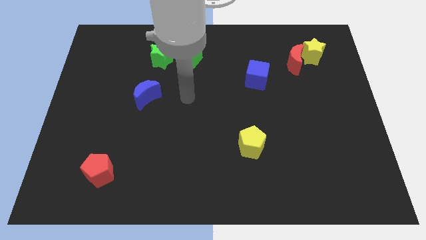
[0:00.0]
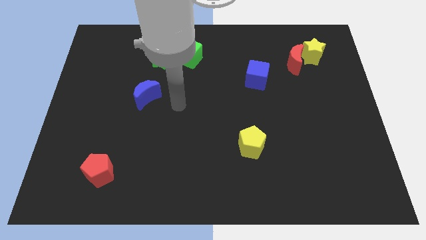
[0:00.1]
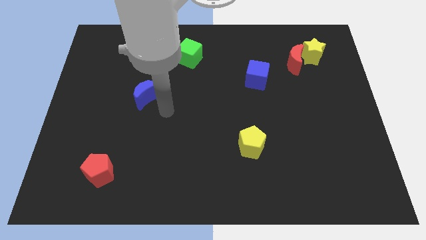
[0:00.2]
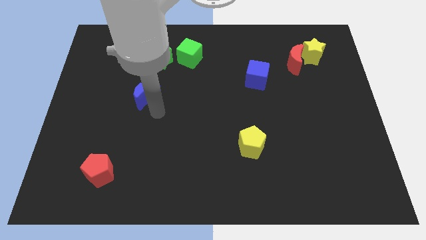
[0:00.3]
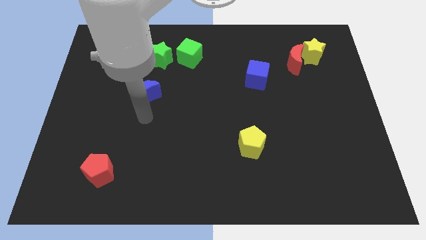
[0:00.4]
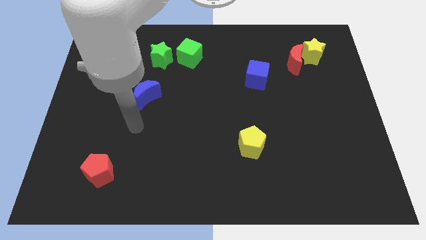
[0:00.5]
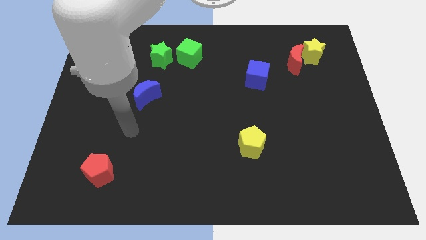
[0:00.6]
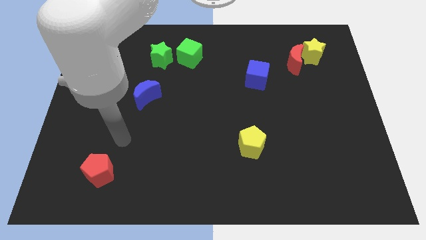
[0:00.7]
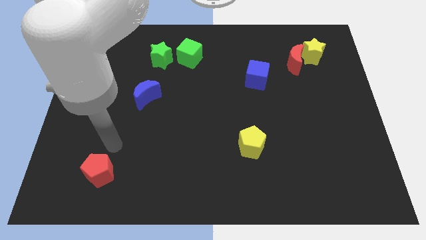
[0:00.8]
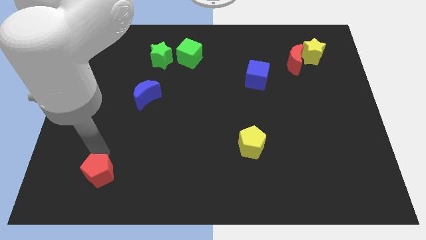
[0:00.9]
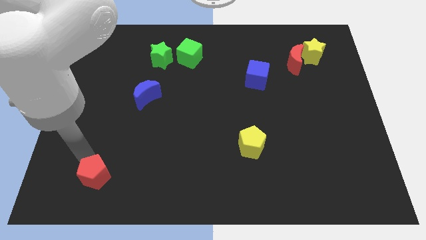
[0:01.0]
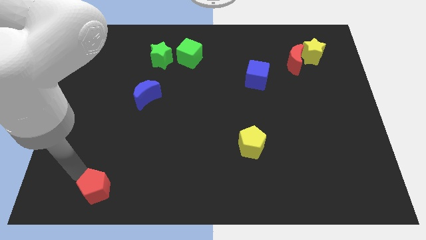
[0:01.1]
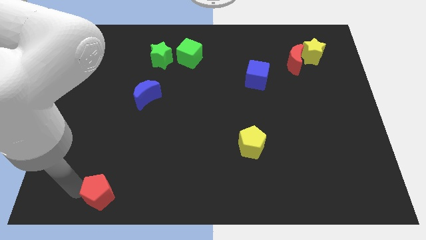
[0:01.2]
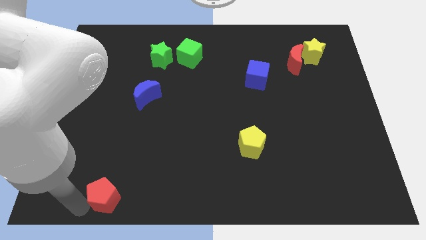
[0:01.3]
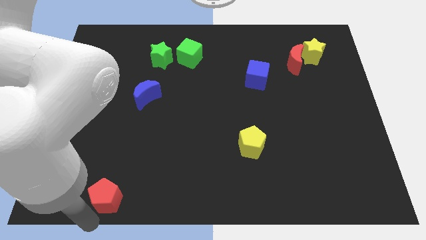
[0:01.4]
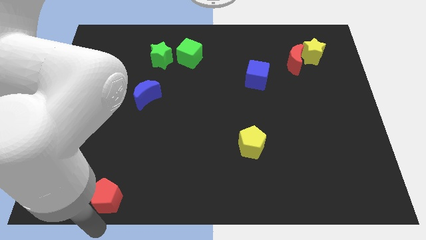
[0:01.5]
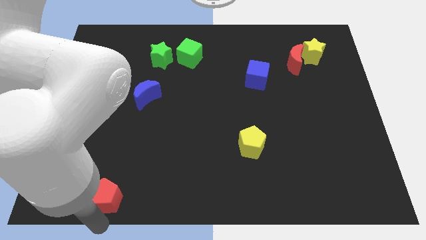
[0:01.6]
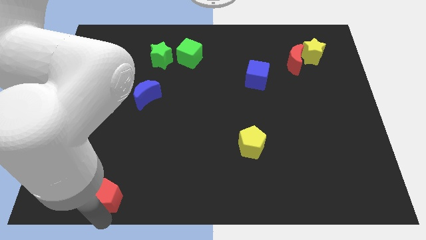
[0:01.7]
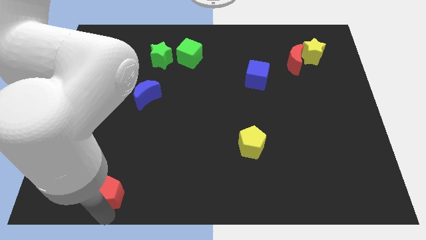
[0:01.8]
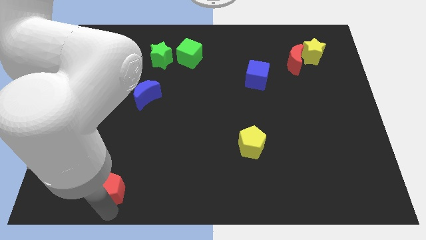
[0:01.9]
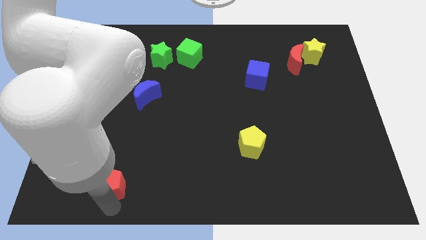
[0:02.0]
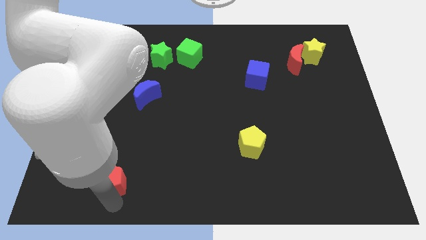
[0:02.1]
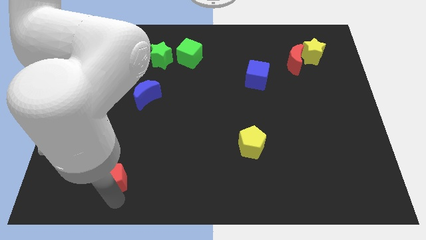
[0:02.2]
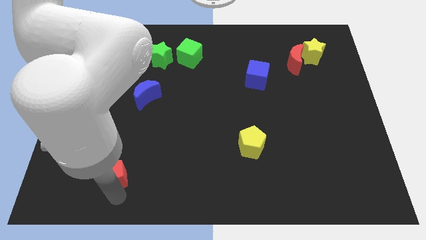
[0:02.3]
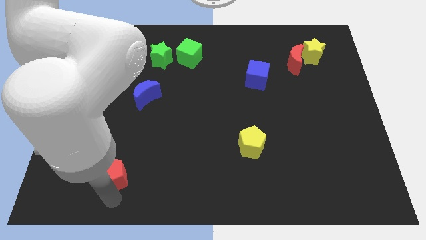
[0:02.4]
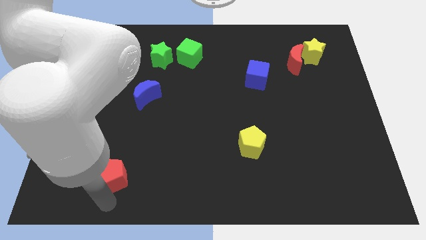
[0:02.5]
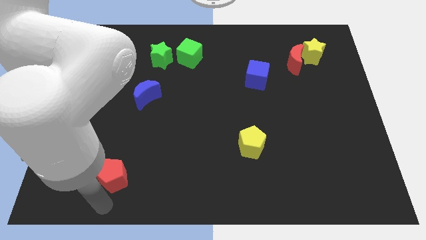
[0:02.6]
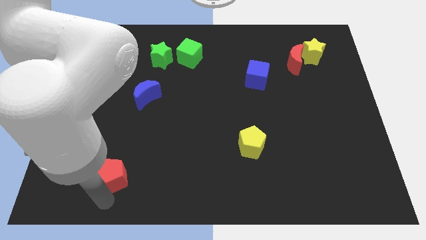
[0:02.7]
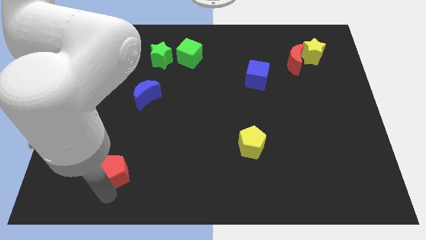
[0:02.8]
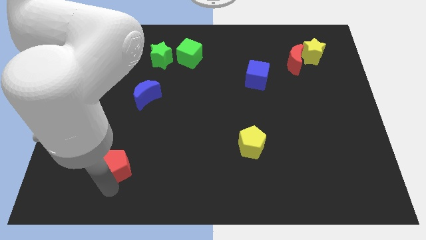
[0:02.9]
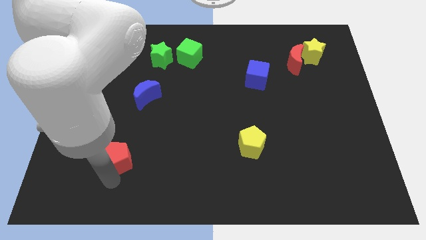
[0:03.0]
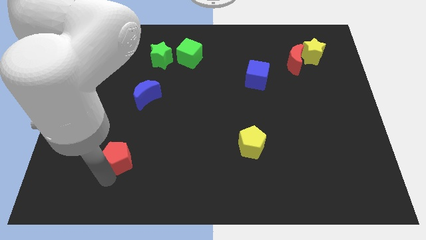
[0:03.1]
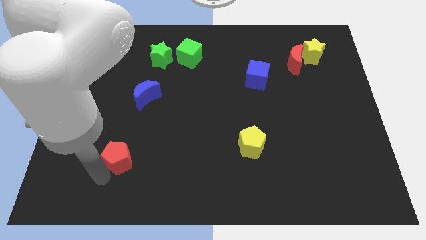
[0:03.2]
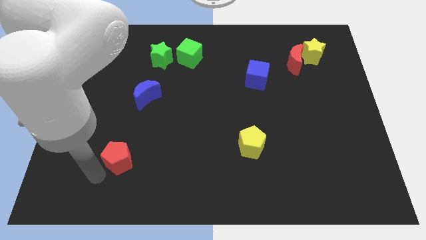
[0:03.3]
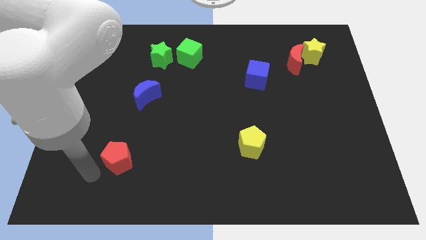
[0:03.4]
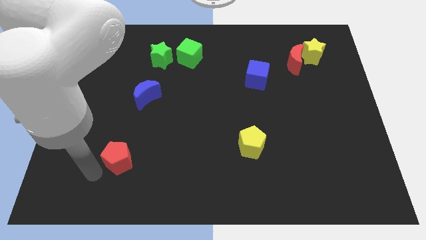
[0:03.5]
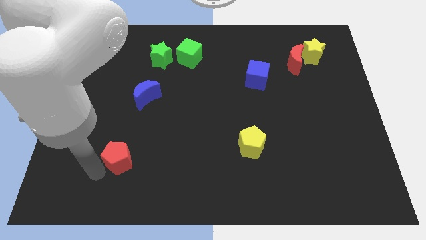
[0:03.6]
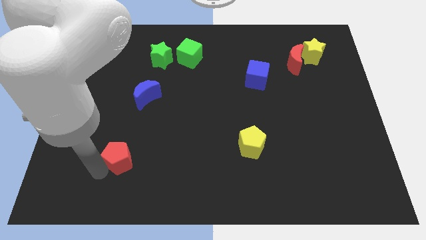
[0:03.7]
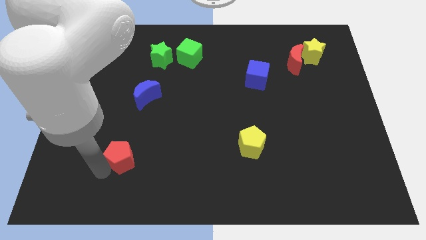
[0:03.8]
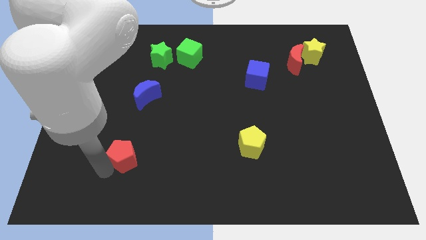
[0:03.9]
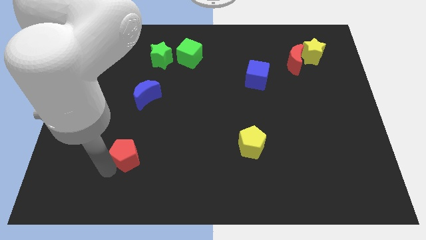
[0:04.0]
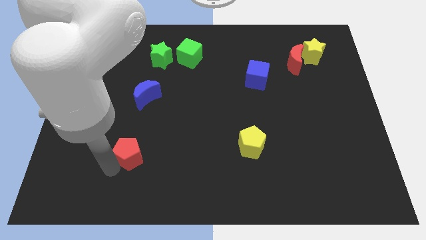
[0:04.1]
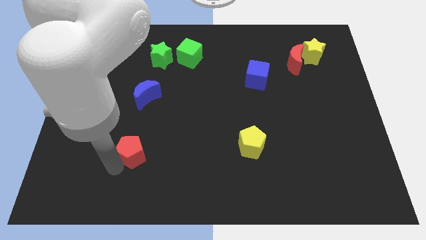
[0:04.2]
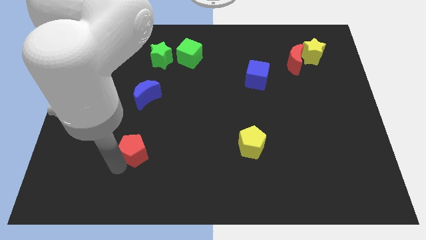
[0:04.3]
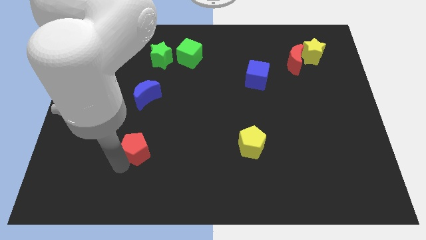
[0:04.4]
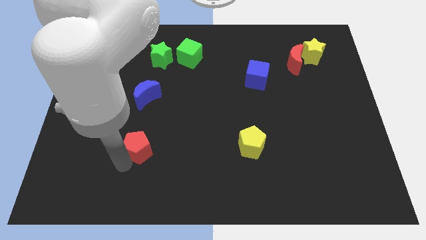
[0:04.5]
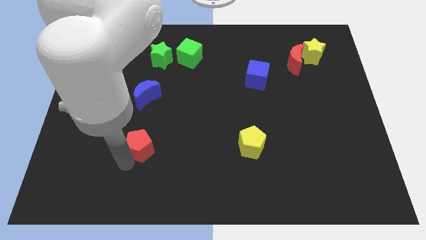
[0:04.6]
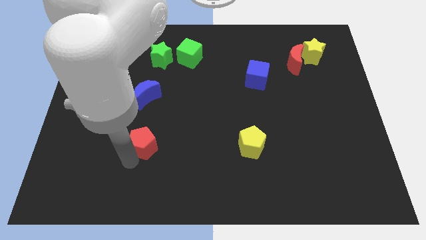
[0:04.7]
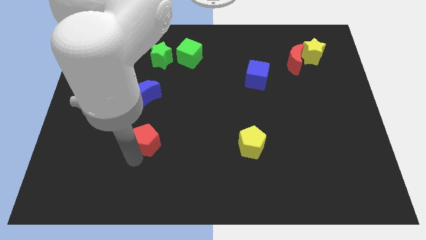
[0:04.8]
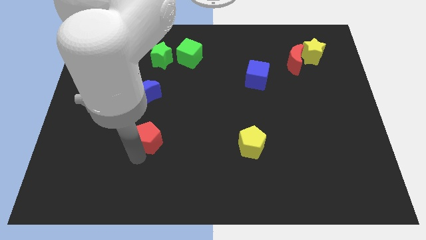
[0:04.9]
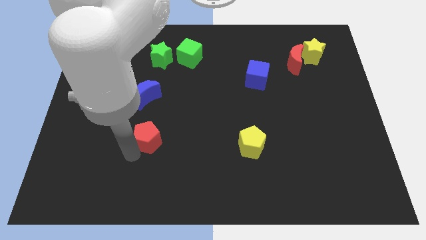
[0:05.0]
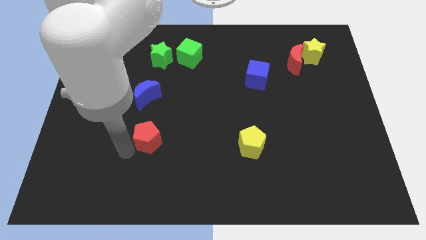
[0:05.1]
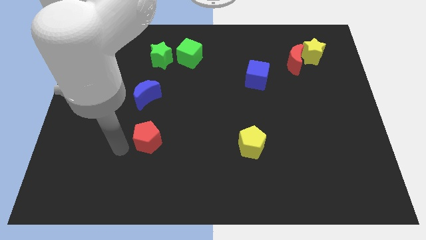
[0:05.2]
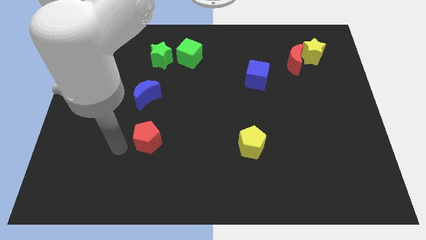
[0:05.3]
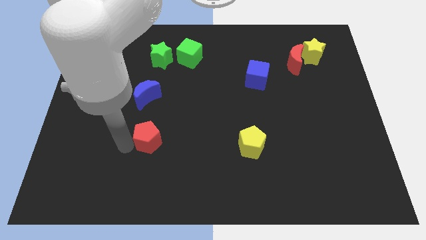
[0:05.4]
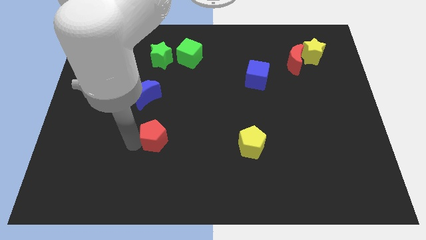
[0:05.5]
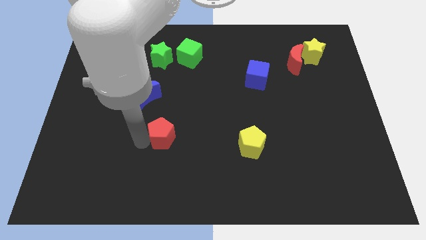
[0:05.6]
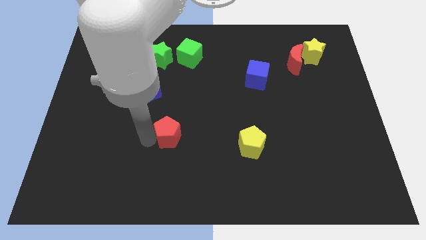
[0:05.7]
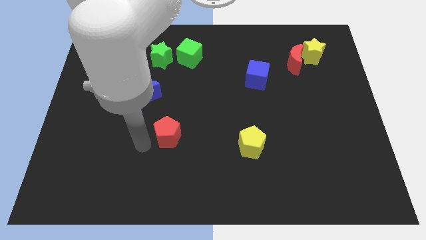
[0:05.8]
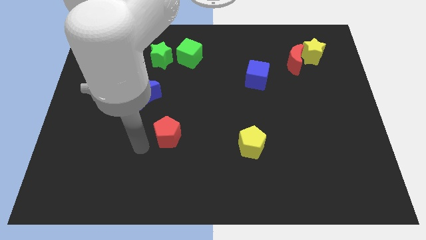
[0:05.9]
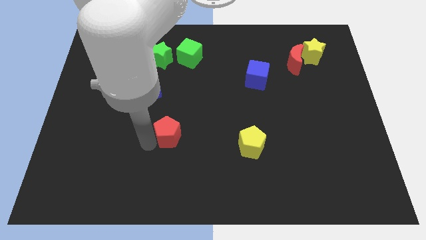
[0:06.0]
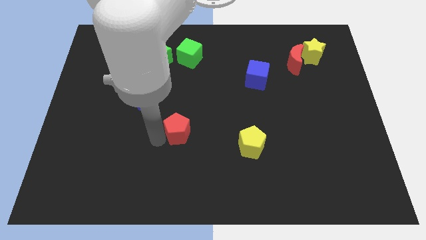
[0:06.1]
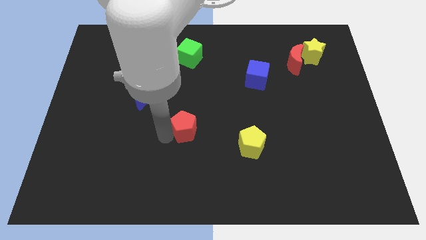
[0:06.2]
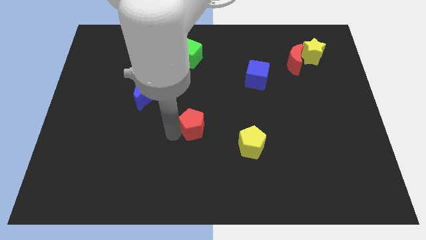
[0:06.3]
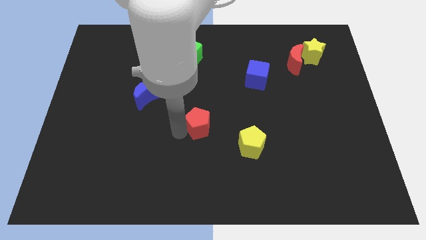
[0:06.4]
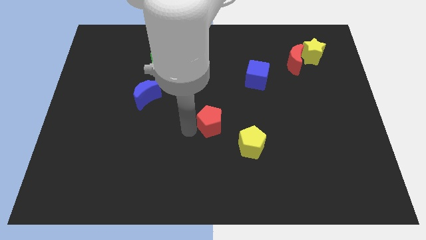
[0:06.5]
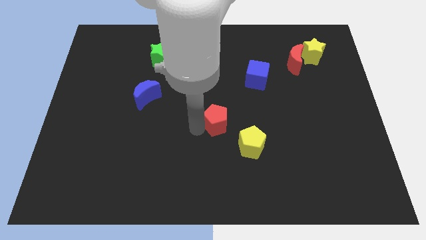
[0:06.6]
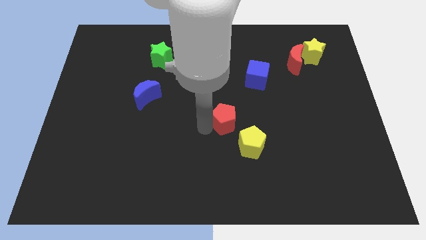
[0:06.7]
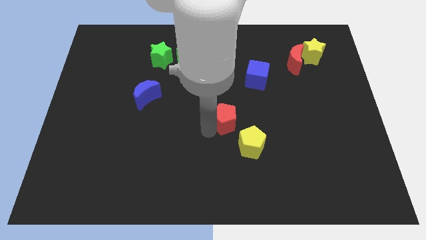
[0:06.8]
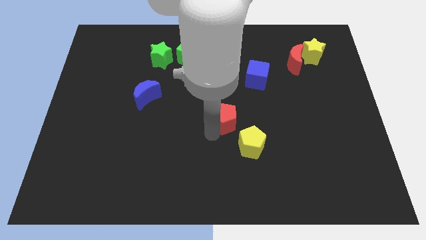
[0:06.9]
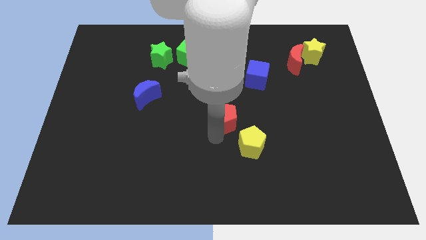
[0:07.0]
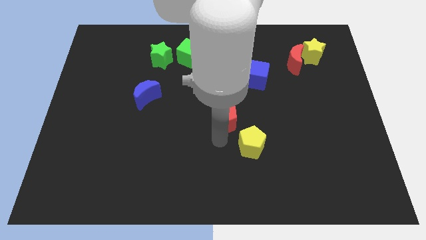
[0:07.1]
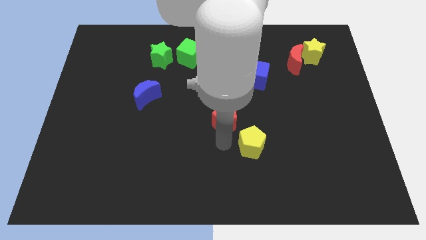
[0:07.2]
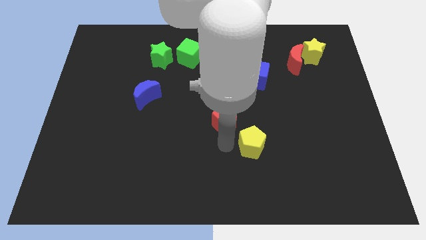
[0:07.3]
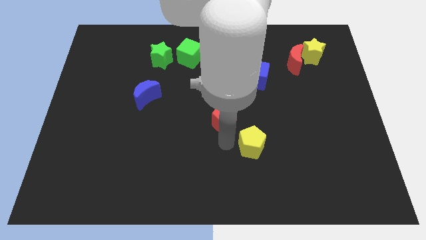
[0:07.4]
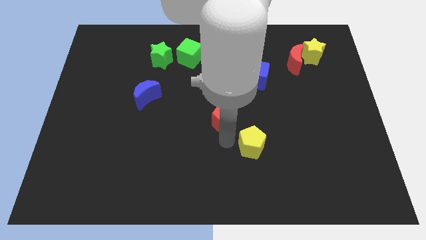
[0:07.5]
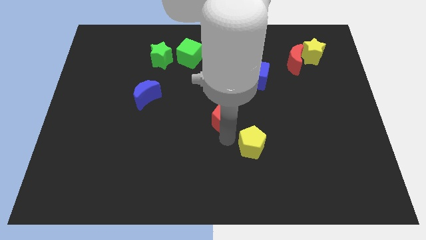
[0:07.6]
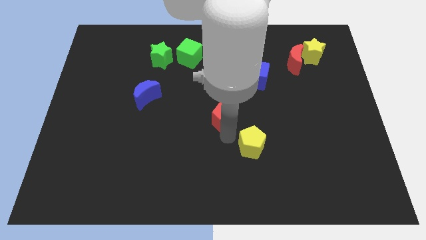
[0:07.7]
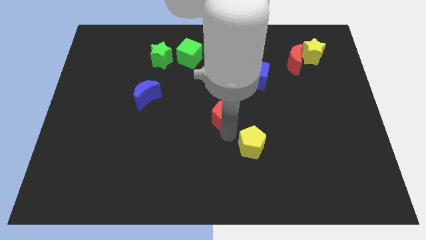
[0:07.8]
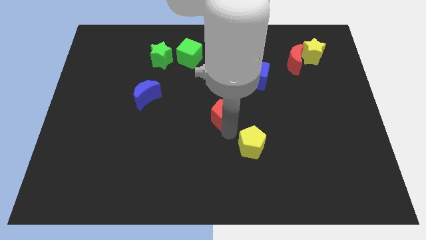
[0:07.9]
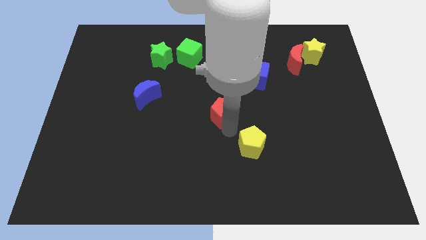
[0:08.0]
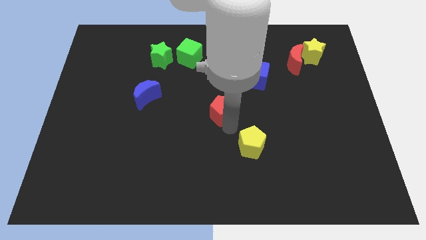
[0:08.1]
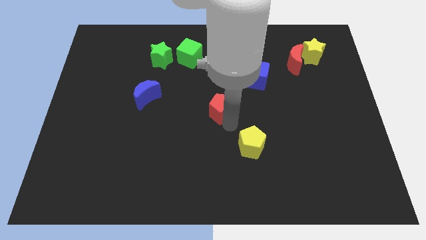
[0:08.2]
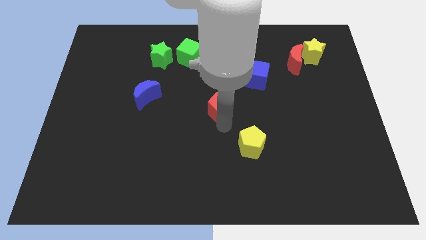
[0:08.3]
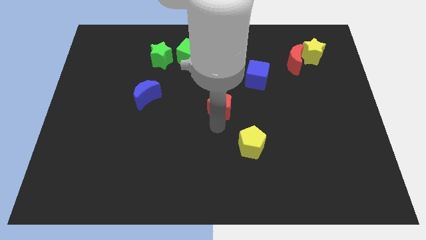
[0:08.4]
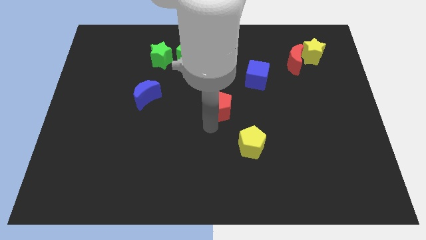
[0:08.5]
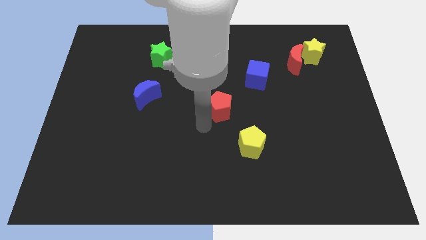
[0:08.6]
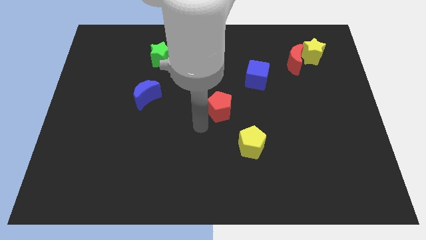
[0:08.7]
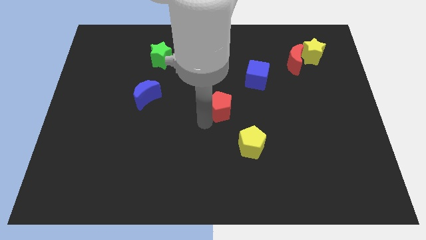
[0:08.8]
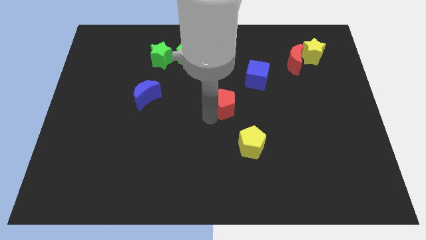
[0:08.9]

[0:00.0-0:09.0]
move the red pentagon to the bottom left side of the blue cube
